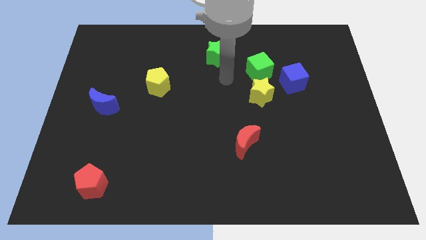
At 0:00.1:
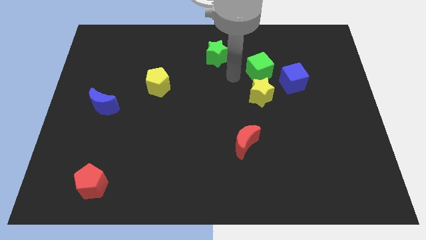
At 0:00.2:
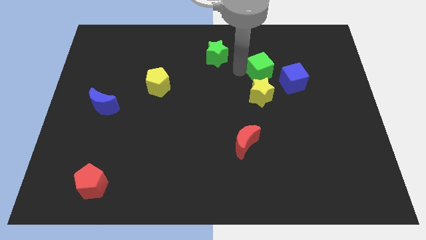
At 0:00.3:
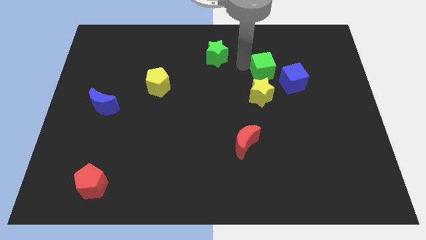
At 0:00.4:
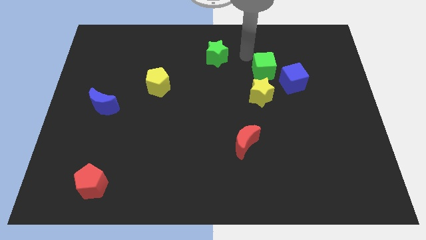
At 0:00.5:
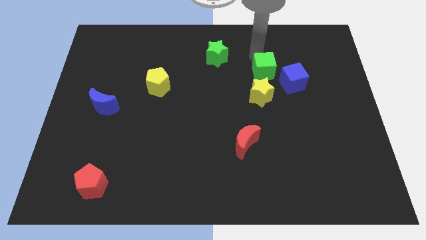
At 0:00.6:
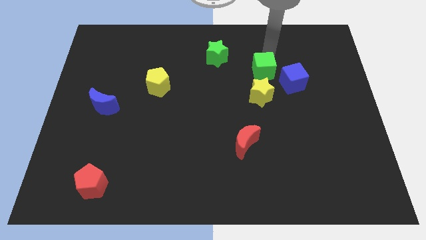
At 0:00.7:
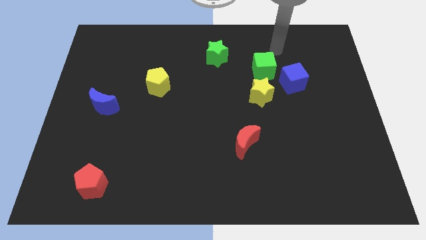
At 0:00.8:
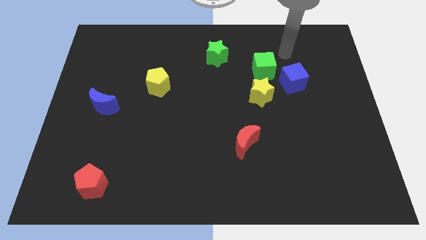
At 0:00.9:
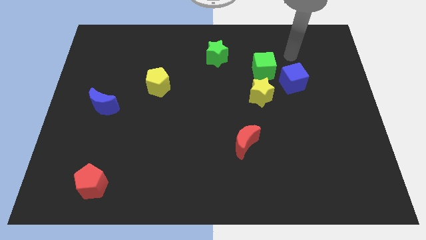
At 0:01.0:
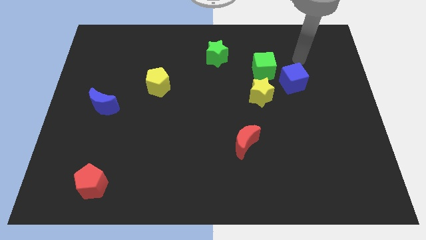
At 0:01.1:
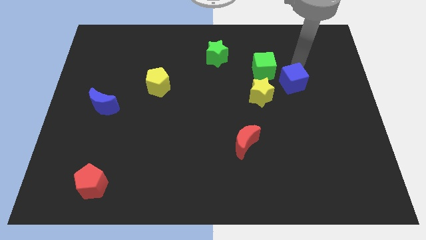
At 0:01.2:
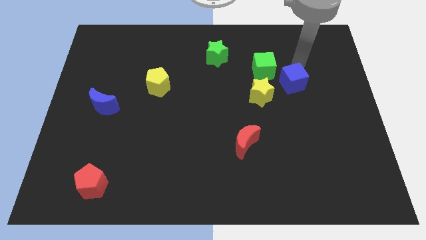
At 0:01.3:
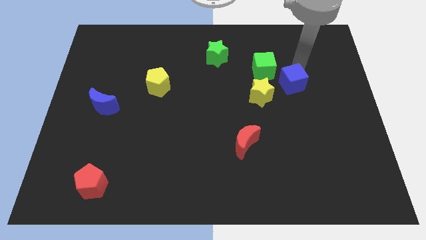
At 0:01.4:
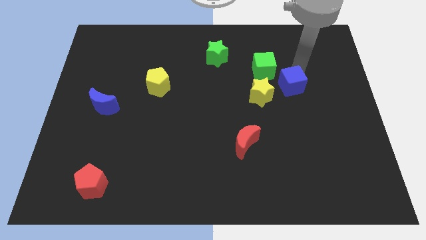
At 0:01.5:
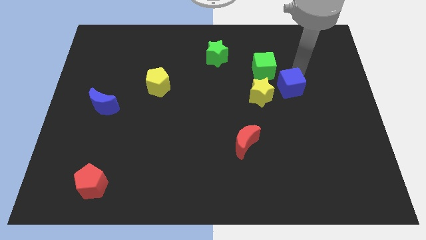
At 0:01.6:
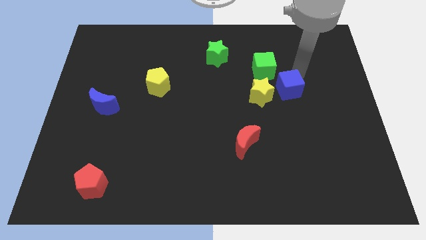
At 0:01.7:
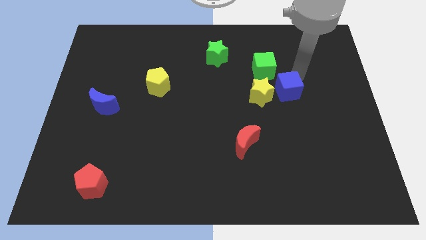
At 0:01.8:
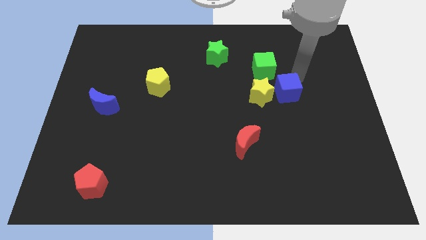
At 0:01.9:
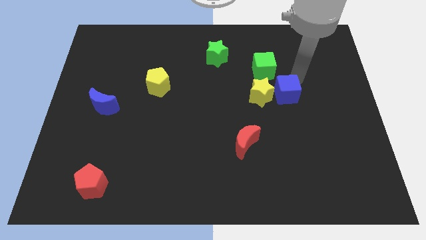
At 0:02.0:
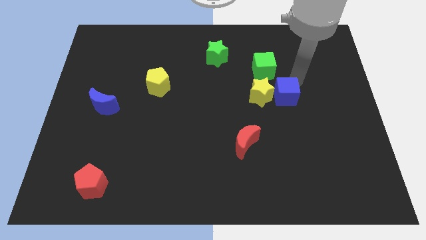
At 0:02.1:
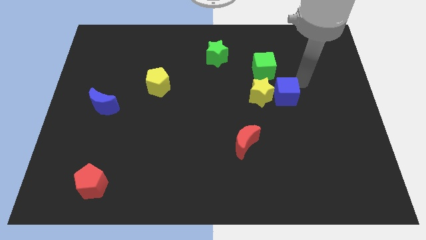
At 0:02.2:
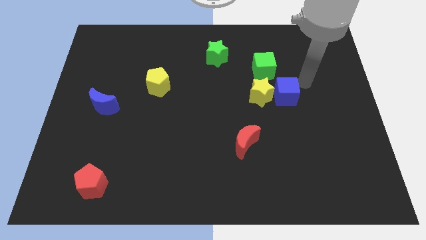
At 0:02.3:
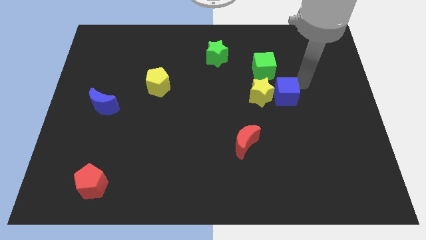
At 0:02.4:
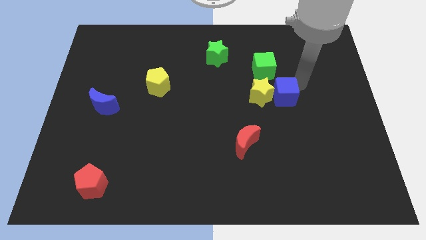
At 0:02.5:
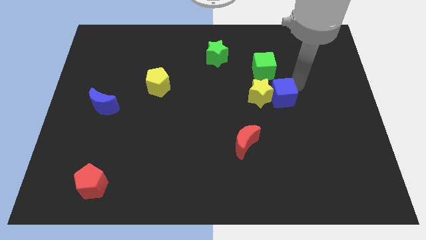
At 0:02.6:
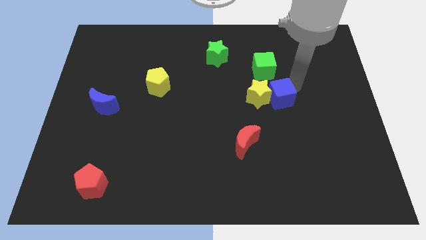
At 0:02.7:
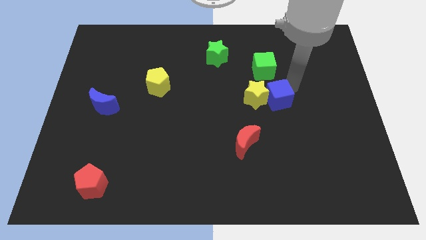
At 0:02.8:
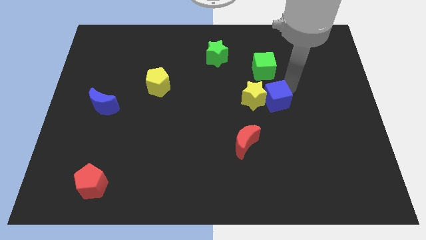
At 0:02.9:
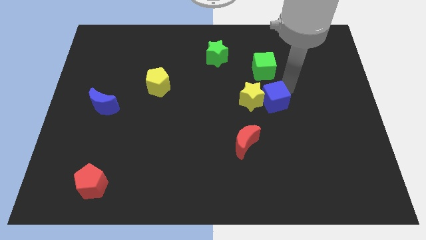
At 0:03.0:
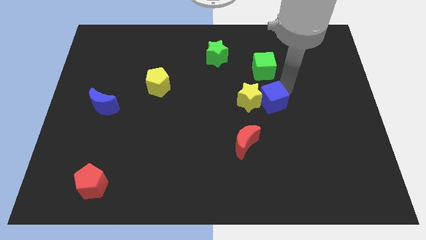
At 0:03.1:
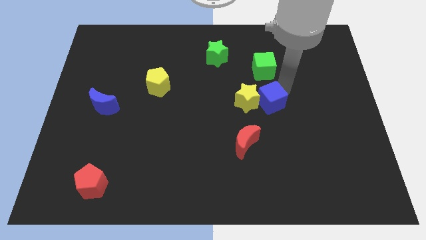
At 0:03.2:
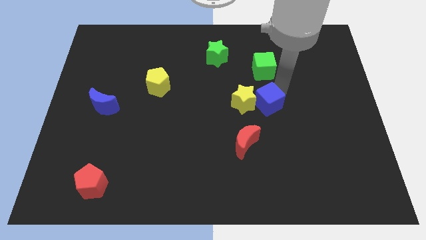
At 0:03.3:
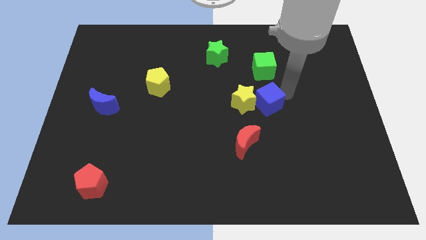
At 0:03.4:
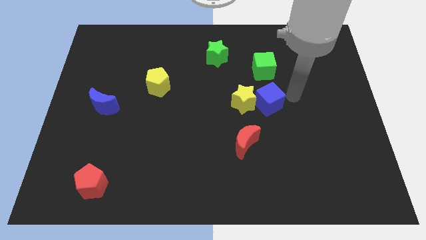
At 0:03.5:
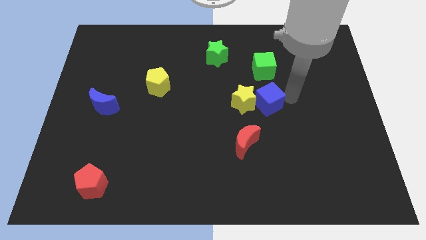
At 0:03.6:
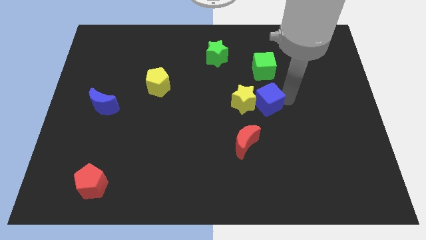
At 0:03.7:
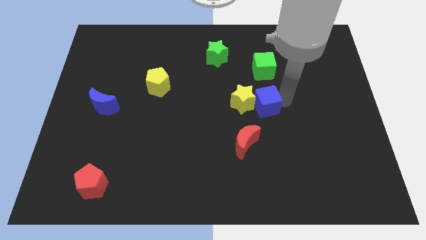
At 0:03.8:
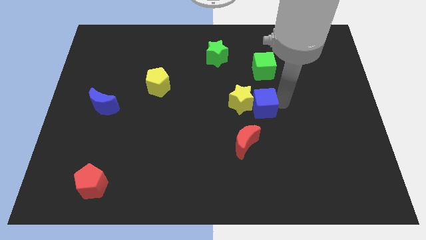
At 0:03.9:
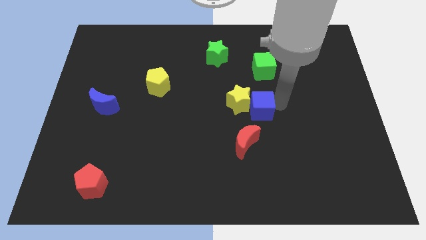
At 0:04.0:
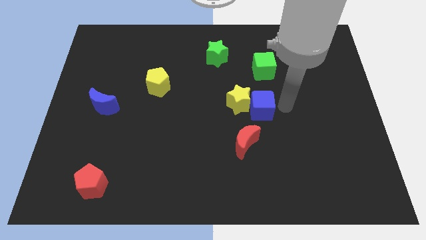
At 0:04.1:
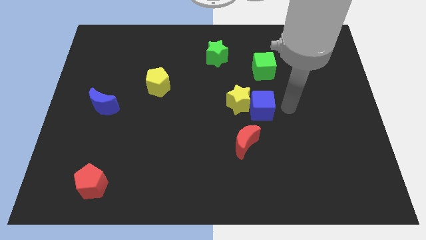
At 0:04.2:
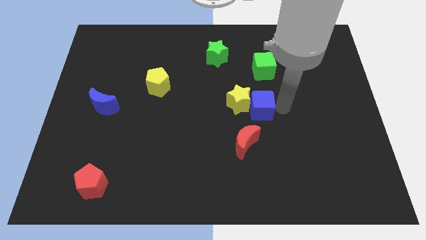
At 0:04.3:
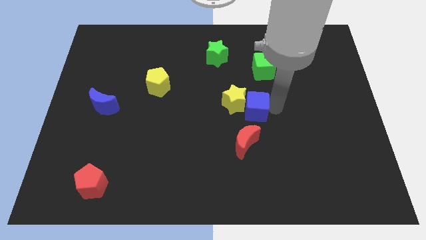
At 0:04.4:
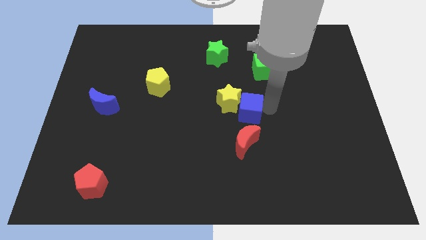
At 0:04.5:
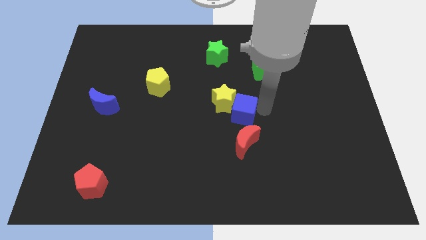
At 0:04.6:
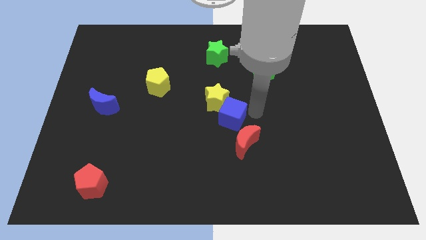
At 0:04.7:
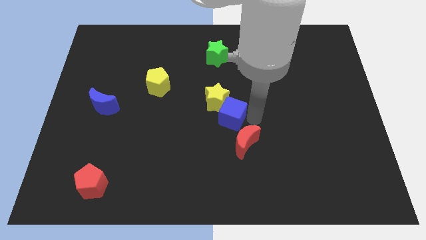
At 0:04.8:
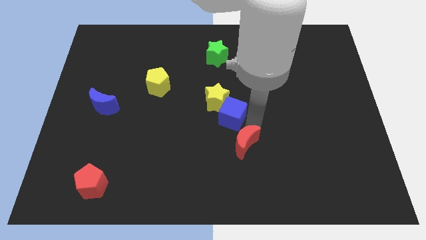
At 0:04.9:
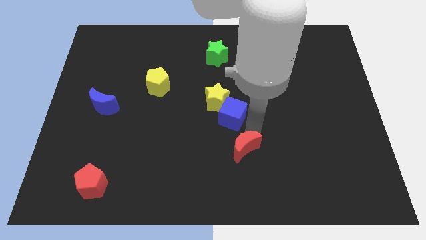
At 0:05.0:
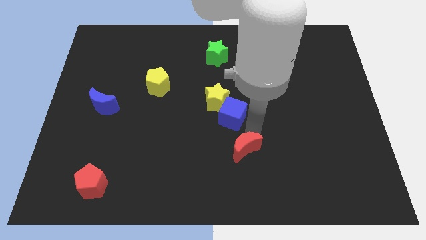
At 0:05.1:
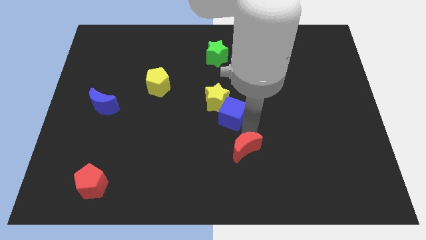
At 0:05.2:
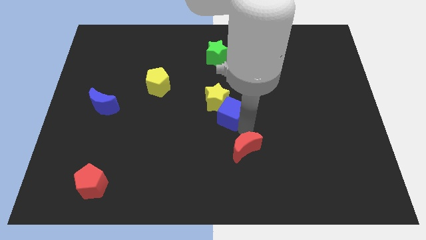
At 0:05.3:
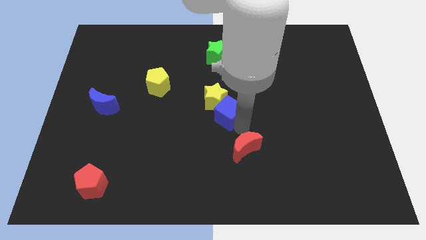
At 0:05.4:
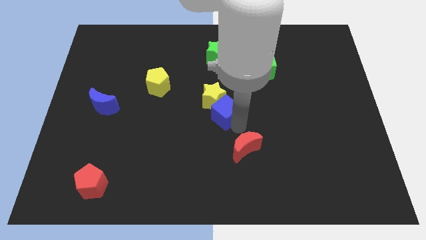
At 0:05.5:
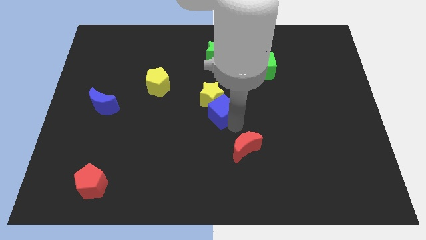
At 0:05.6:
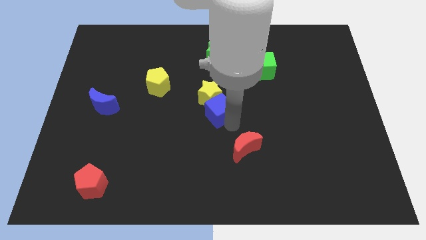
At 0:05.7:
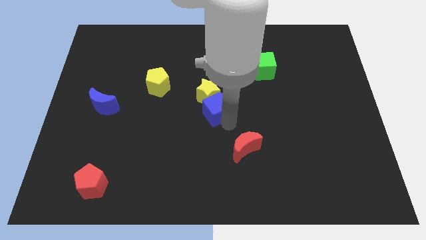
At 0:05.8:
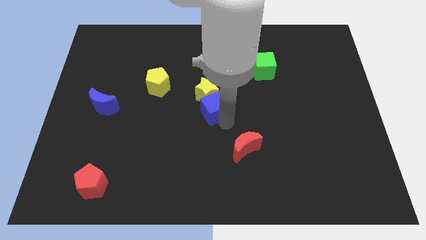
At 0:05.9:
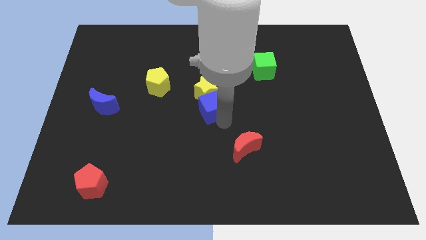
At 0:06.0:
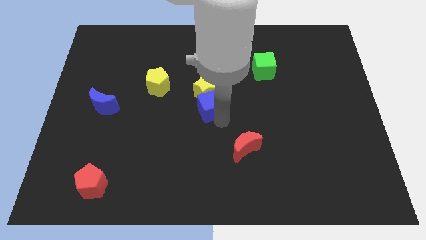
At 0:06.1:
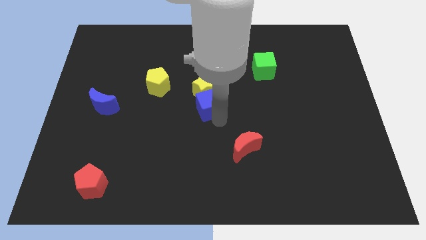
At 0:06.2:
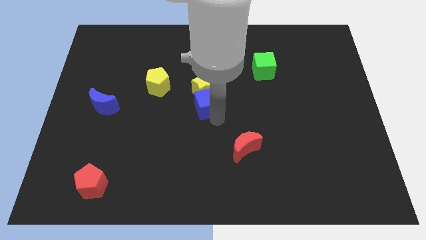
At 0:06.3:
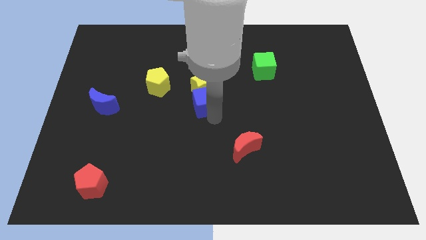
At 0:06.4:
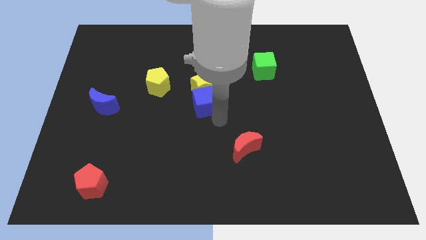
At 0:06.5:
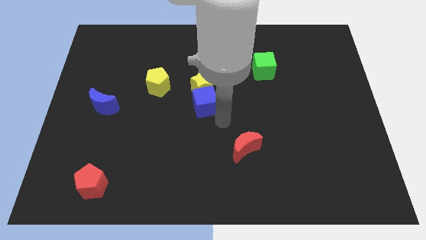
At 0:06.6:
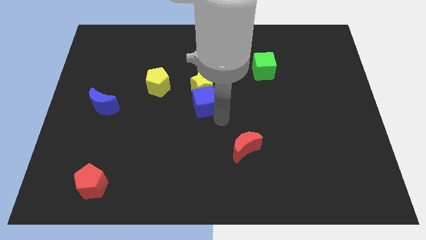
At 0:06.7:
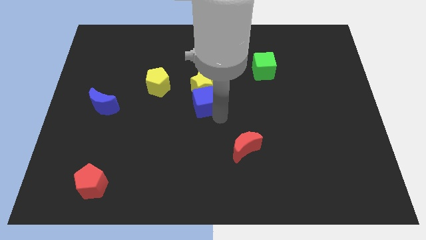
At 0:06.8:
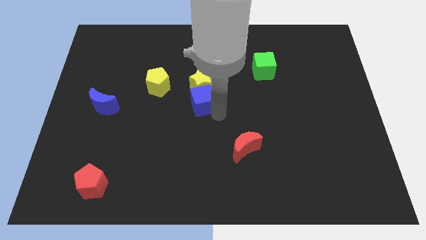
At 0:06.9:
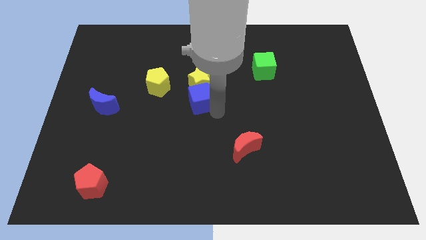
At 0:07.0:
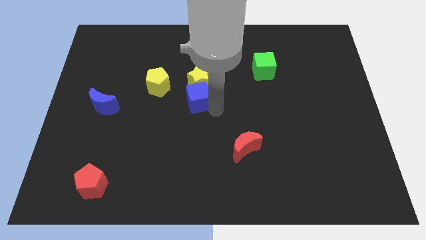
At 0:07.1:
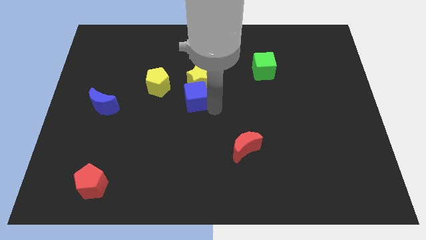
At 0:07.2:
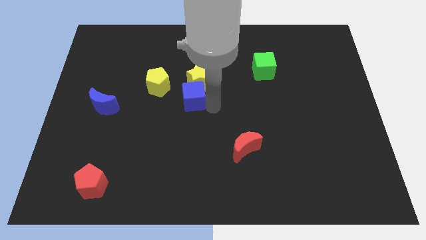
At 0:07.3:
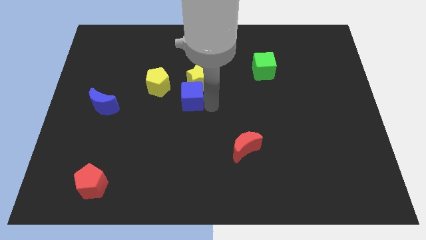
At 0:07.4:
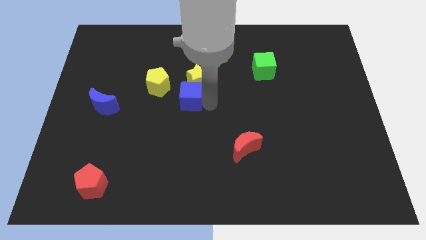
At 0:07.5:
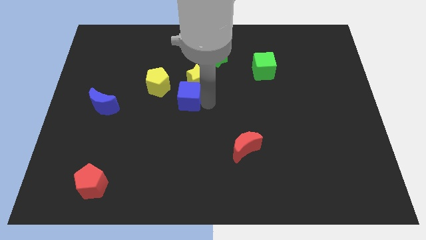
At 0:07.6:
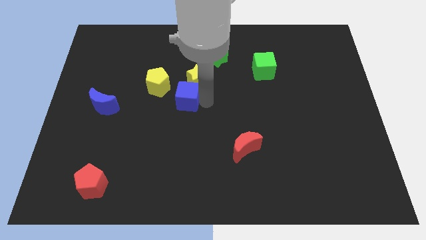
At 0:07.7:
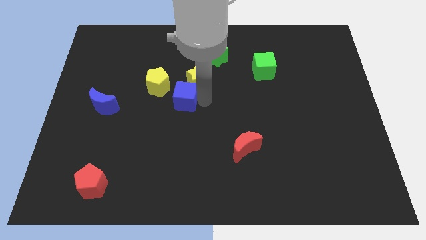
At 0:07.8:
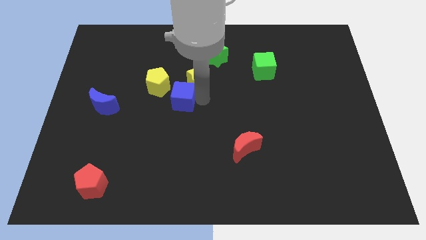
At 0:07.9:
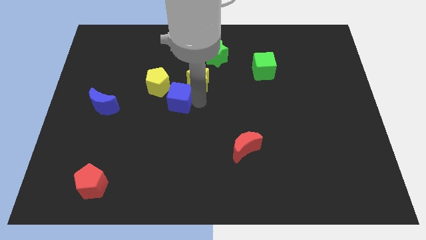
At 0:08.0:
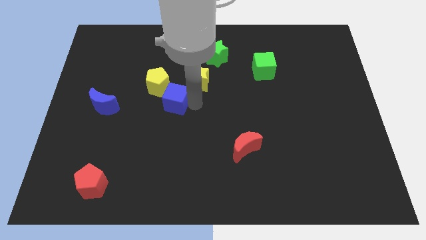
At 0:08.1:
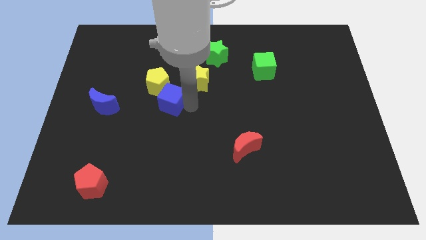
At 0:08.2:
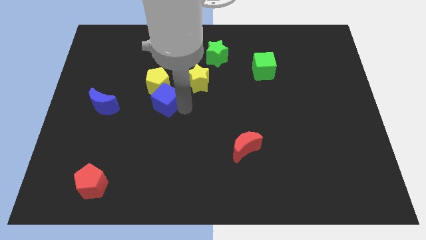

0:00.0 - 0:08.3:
put the blue cube next to the yellow pentagon
